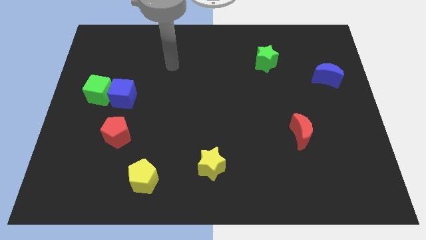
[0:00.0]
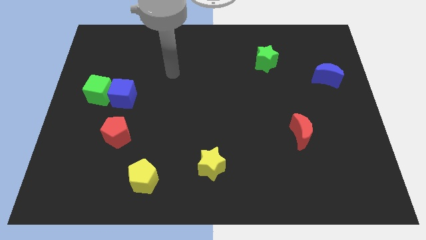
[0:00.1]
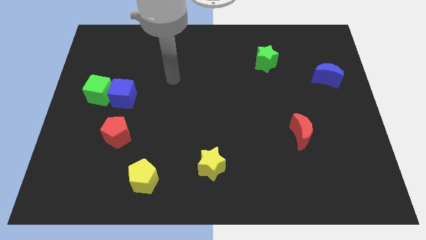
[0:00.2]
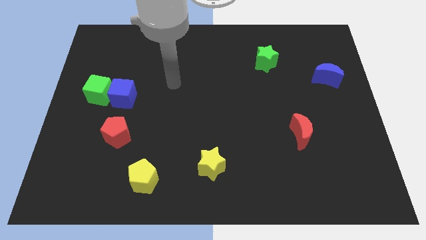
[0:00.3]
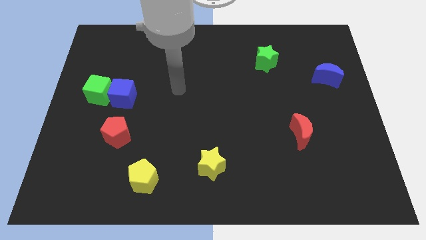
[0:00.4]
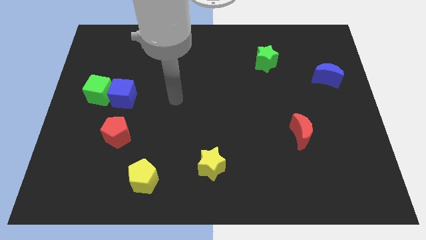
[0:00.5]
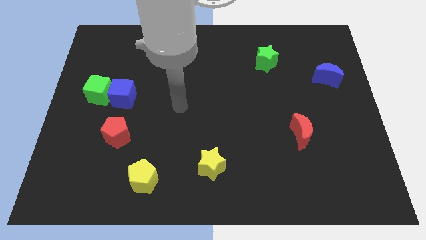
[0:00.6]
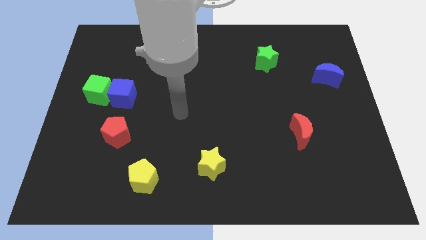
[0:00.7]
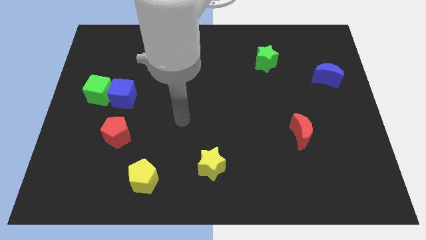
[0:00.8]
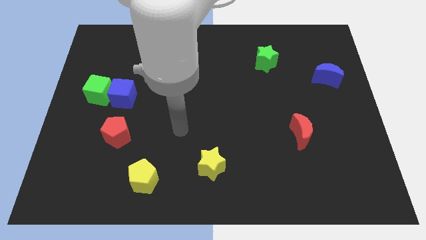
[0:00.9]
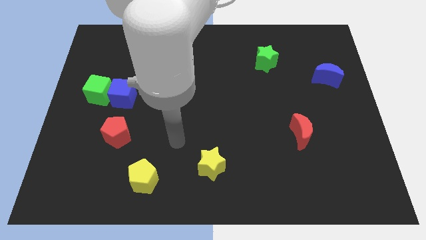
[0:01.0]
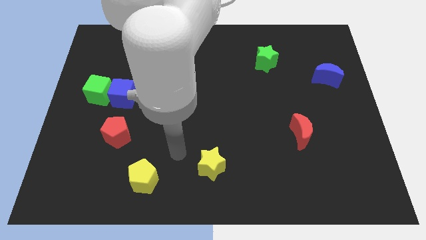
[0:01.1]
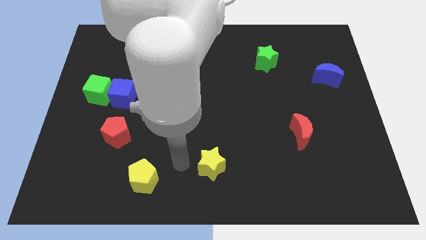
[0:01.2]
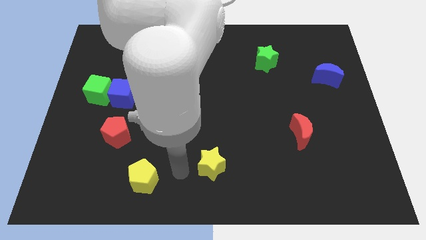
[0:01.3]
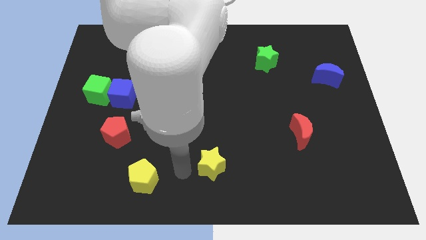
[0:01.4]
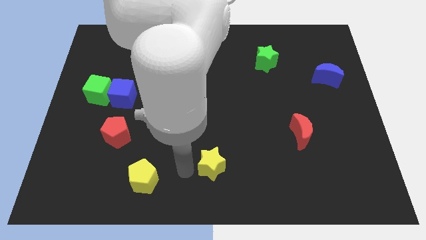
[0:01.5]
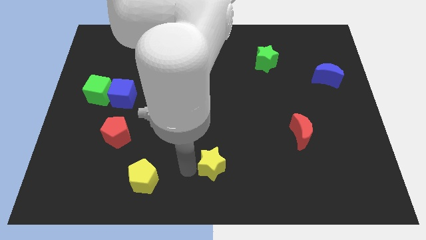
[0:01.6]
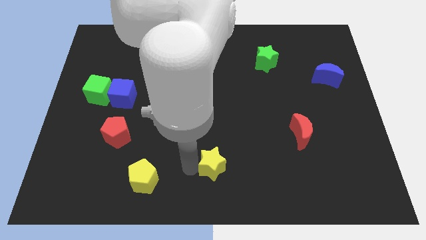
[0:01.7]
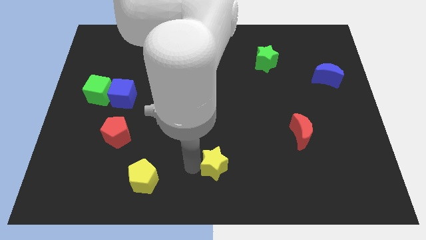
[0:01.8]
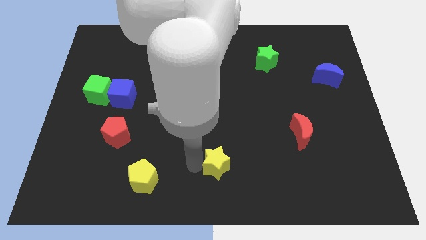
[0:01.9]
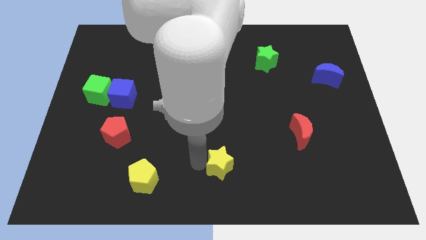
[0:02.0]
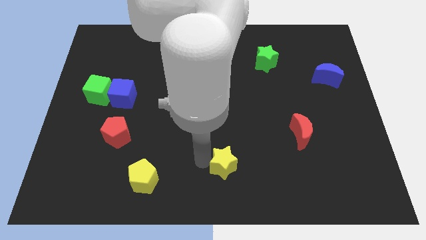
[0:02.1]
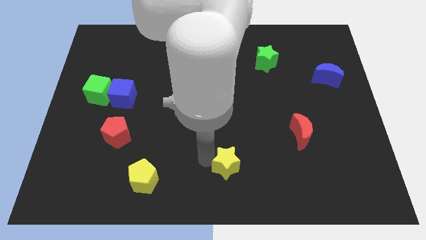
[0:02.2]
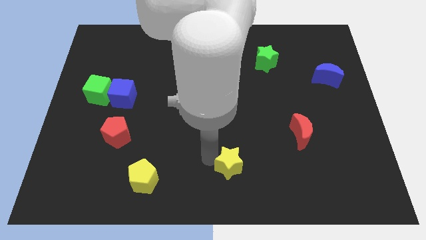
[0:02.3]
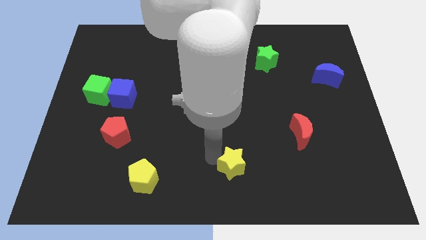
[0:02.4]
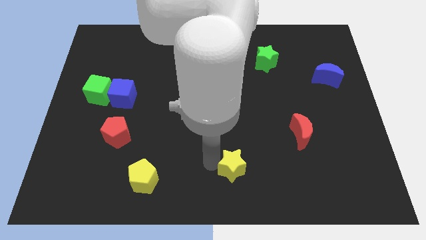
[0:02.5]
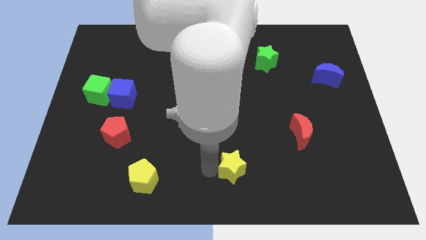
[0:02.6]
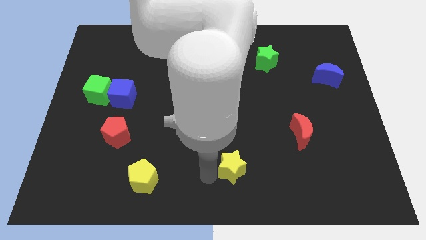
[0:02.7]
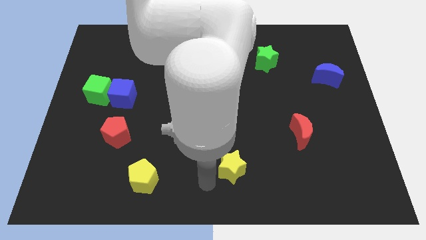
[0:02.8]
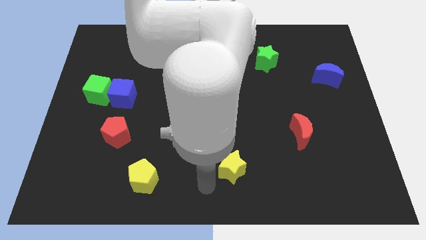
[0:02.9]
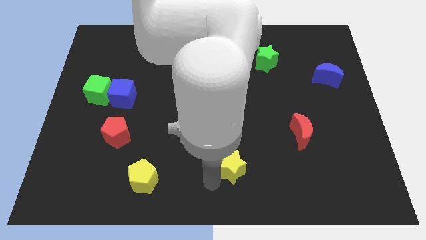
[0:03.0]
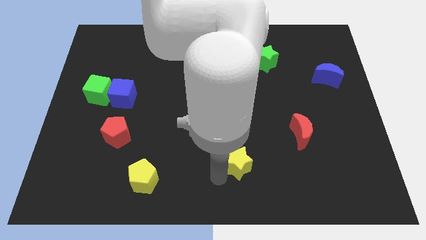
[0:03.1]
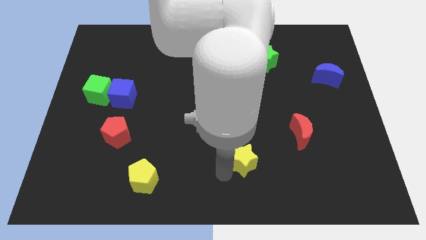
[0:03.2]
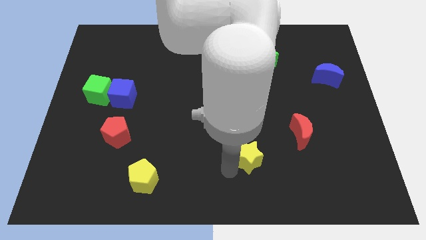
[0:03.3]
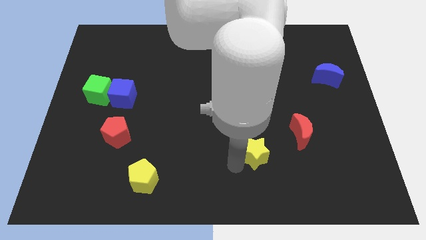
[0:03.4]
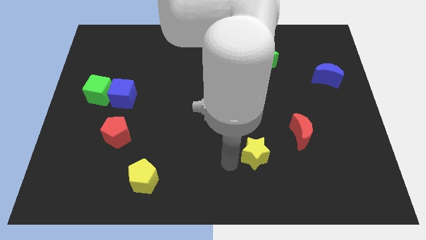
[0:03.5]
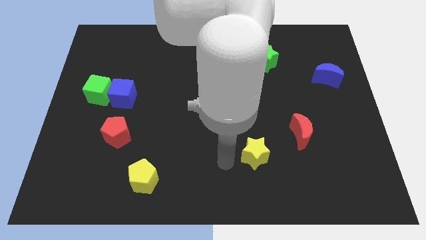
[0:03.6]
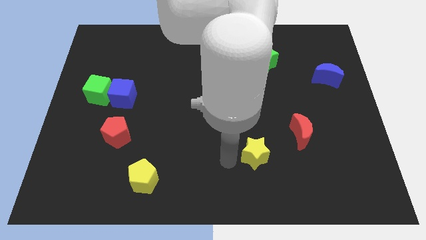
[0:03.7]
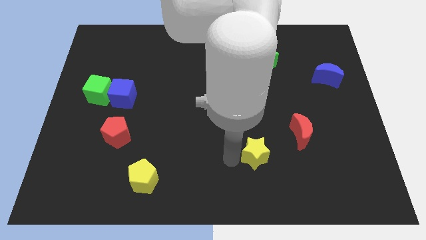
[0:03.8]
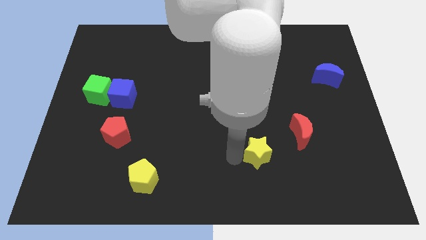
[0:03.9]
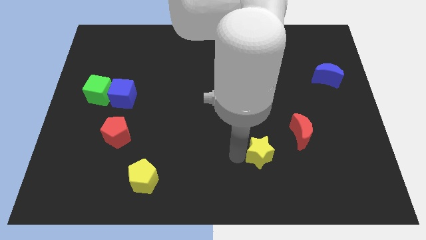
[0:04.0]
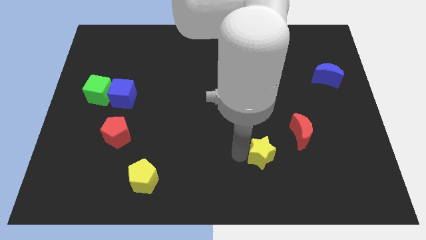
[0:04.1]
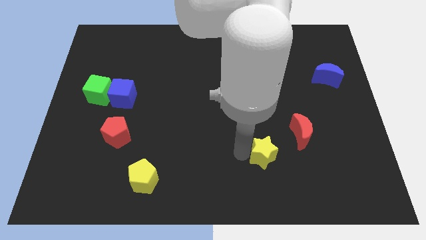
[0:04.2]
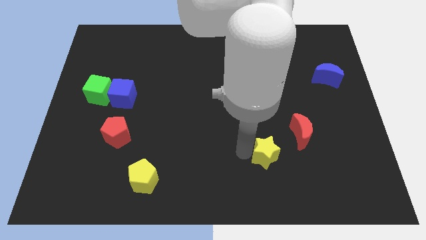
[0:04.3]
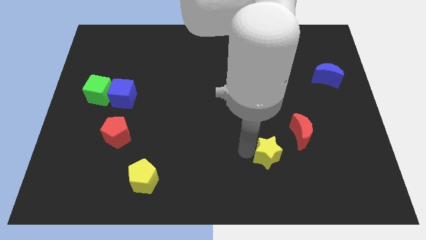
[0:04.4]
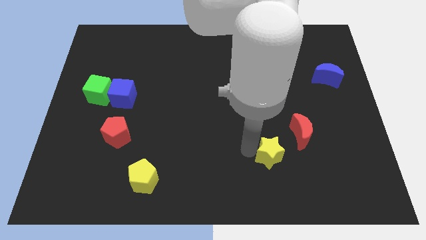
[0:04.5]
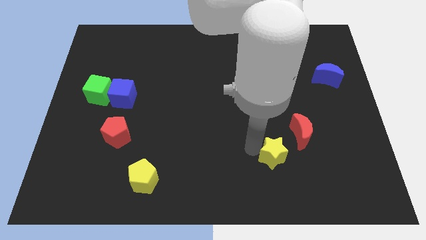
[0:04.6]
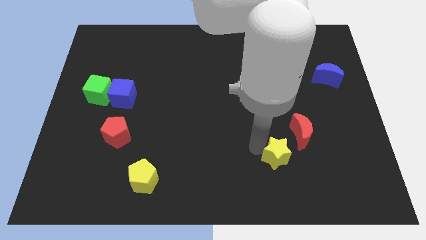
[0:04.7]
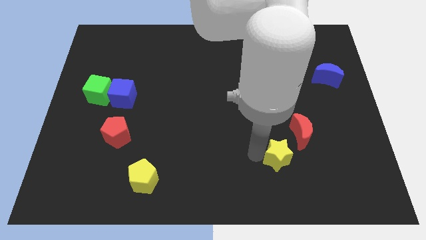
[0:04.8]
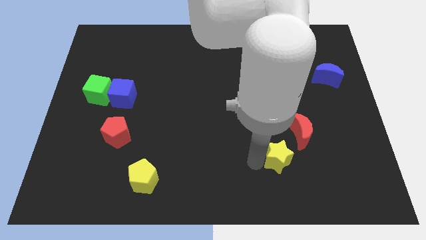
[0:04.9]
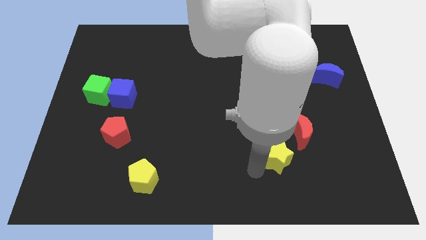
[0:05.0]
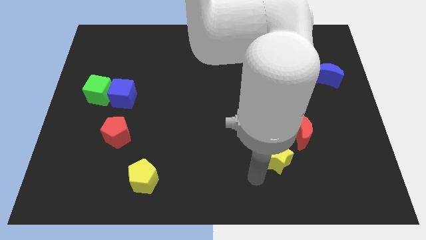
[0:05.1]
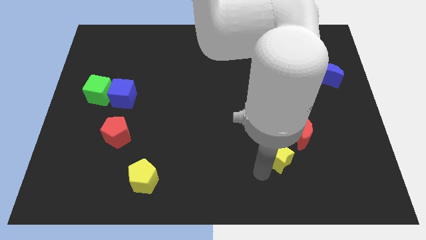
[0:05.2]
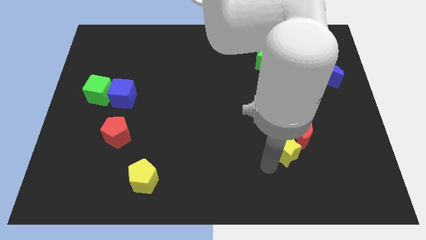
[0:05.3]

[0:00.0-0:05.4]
put the yellow star next to the red moon
